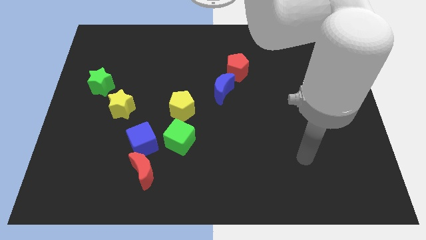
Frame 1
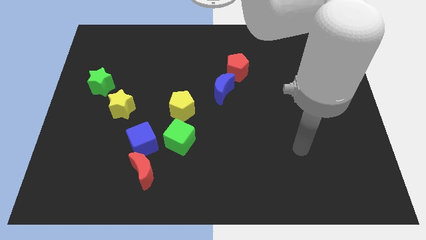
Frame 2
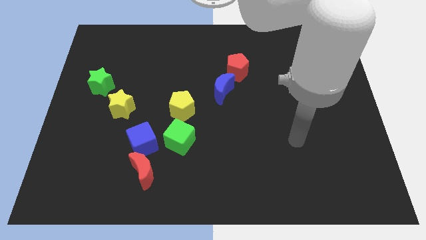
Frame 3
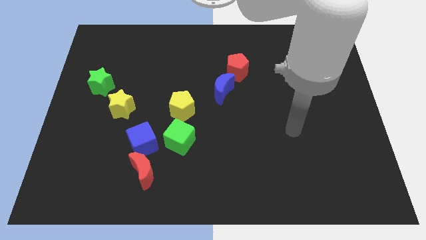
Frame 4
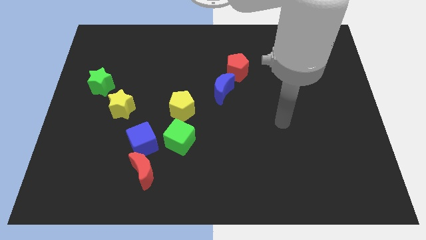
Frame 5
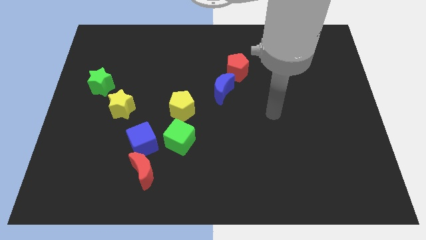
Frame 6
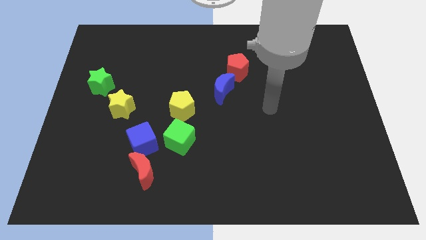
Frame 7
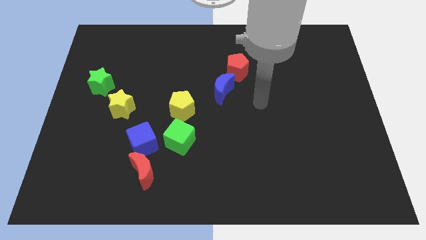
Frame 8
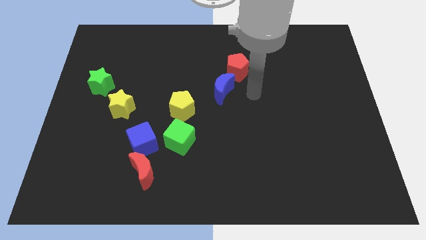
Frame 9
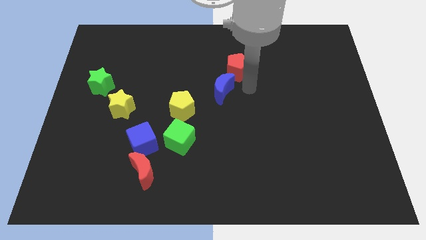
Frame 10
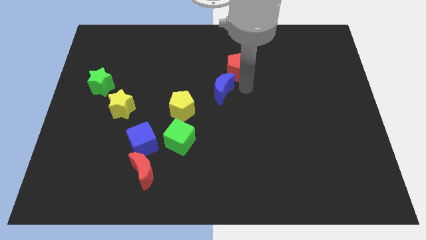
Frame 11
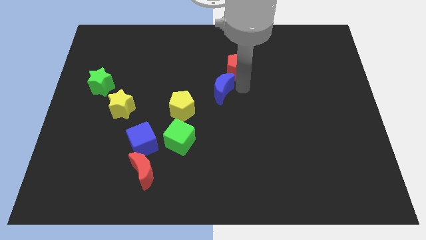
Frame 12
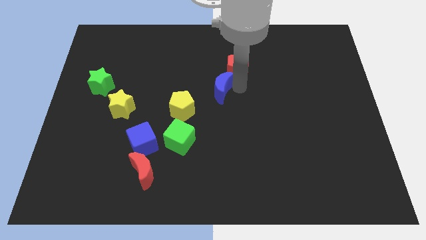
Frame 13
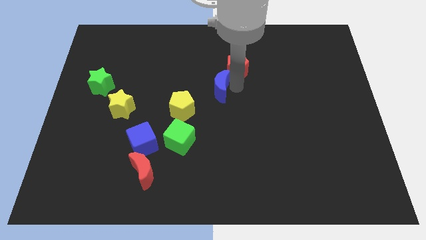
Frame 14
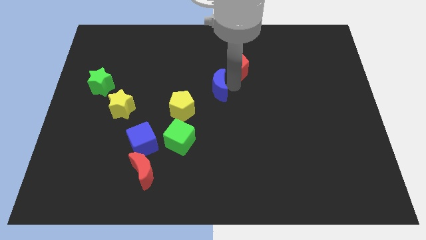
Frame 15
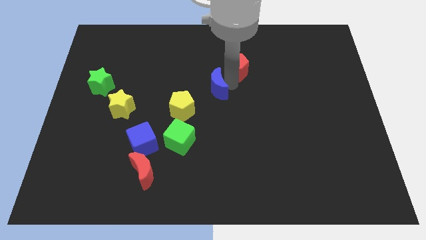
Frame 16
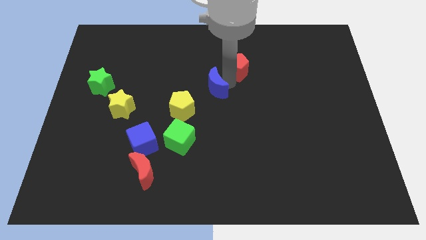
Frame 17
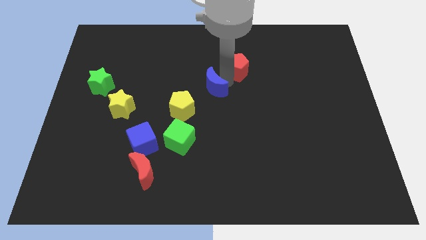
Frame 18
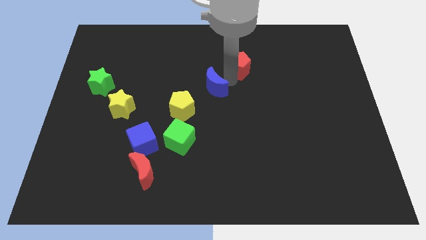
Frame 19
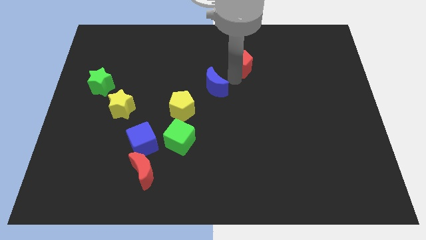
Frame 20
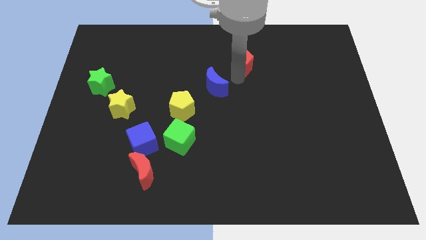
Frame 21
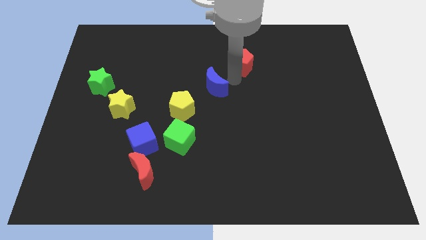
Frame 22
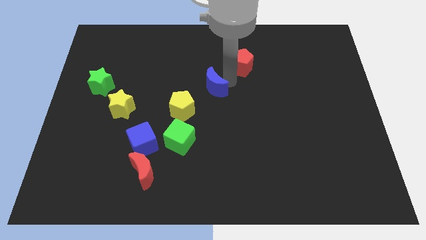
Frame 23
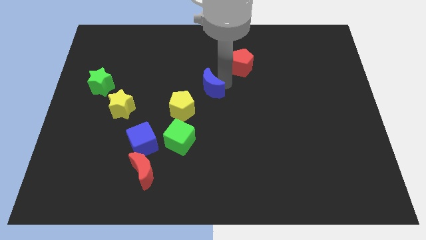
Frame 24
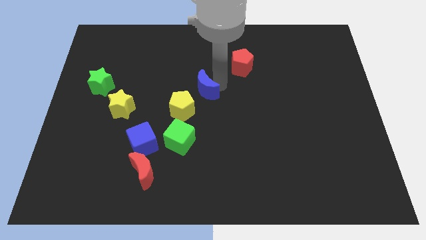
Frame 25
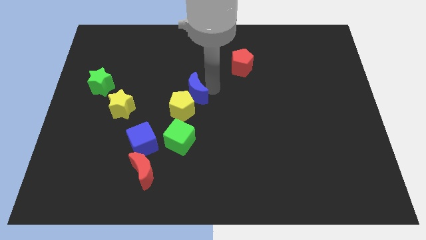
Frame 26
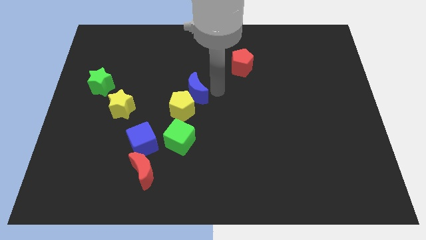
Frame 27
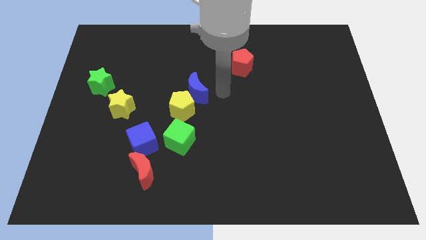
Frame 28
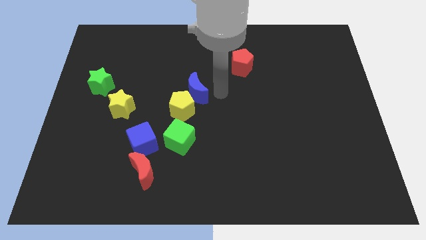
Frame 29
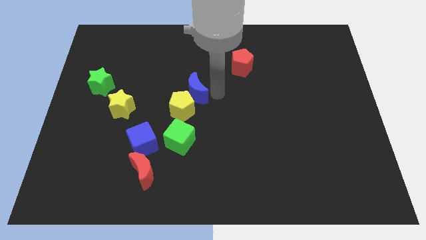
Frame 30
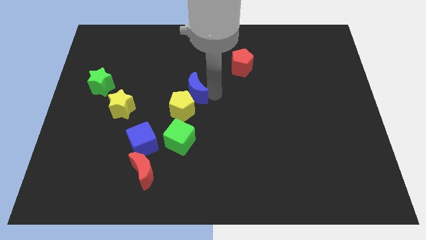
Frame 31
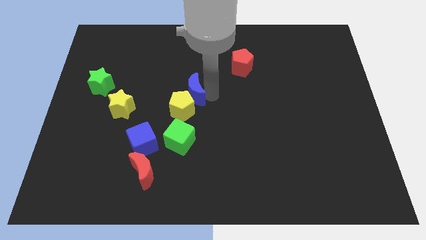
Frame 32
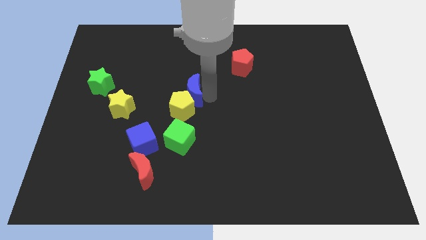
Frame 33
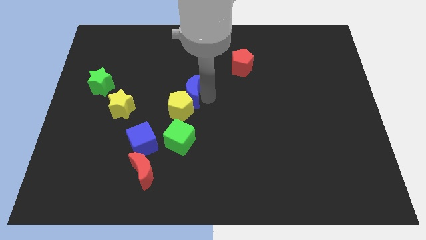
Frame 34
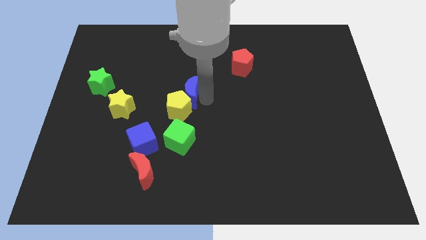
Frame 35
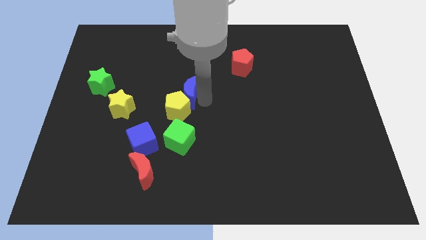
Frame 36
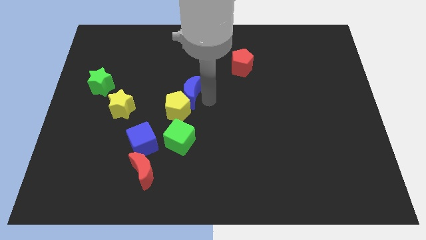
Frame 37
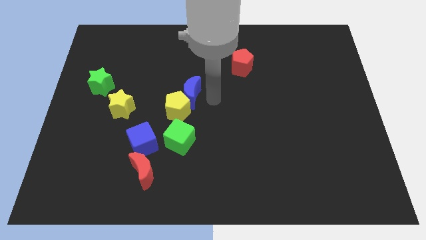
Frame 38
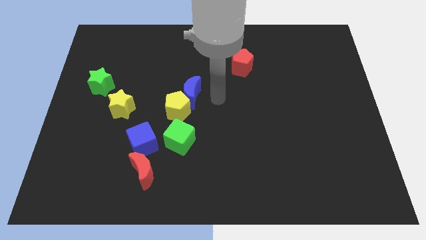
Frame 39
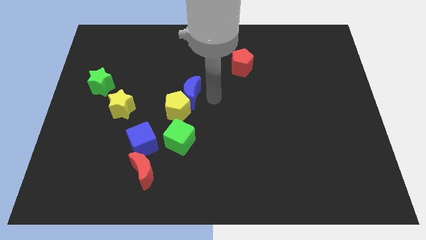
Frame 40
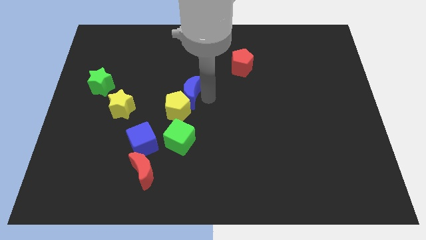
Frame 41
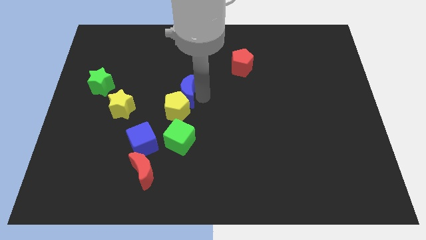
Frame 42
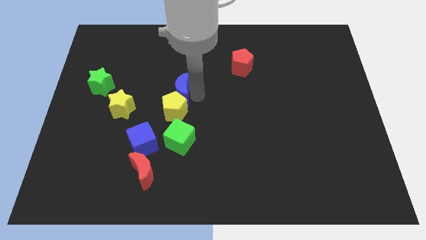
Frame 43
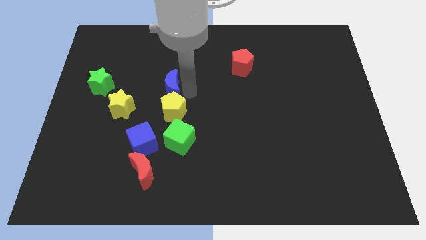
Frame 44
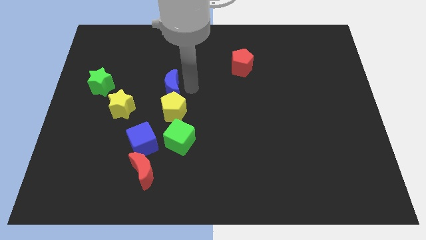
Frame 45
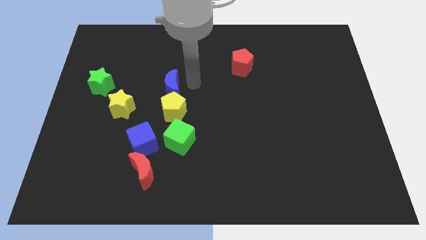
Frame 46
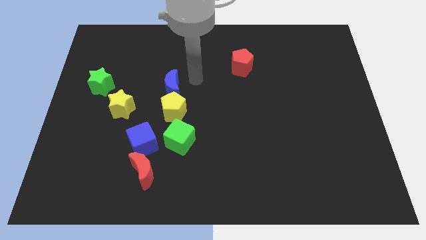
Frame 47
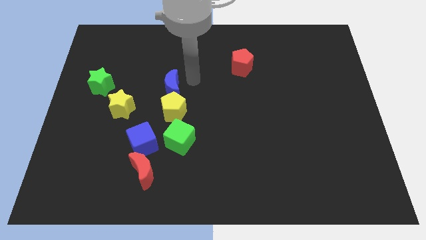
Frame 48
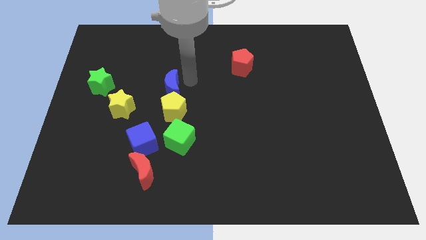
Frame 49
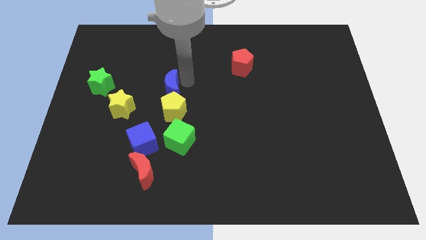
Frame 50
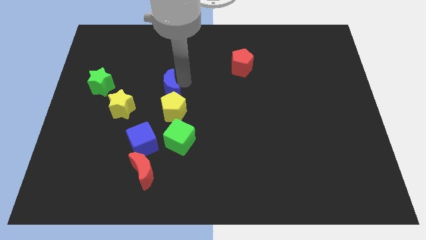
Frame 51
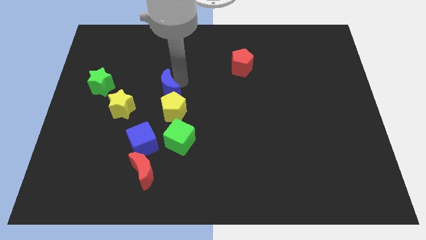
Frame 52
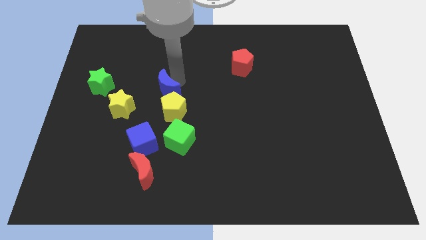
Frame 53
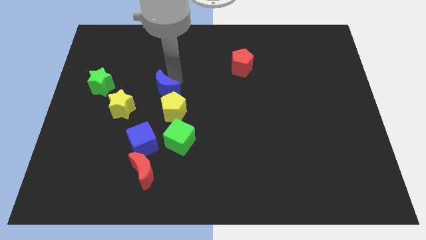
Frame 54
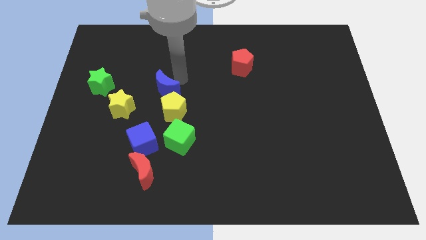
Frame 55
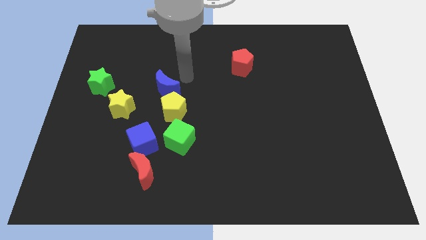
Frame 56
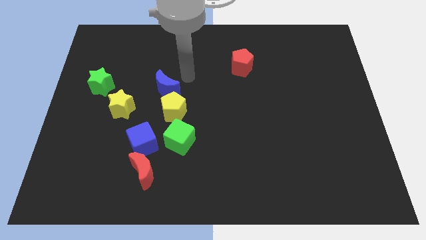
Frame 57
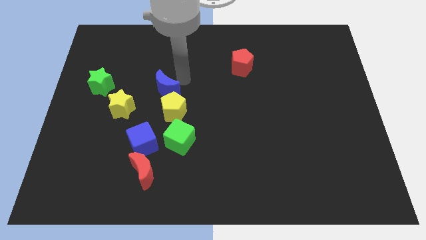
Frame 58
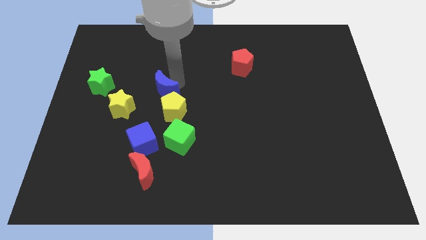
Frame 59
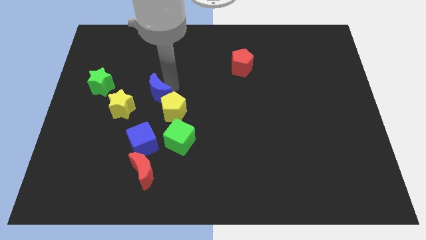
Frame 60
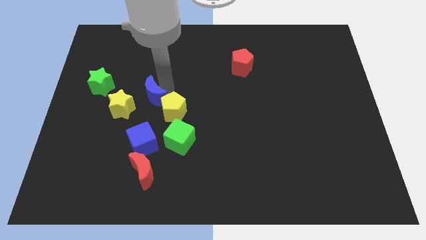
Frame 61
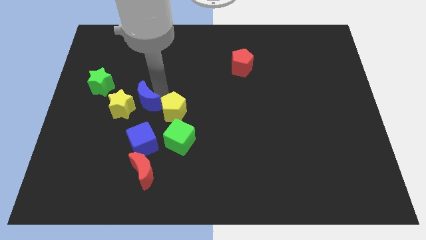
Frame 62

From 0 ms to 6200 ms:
push the blue moon close to the yellow star

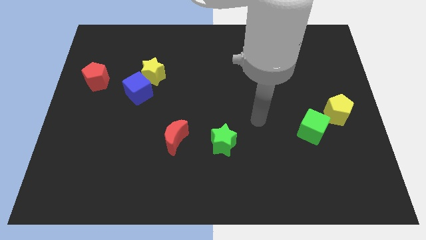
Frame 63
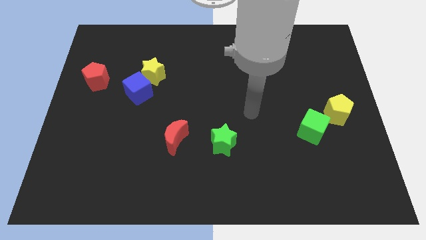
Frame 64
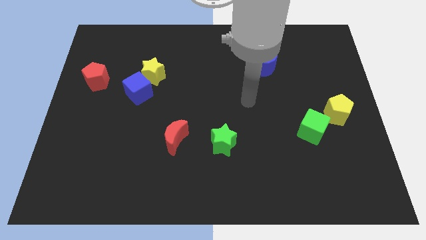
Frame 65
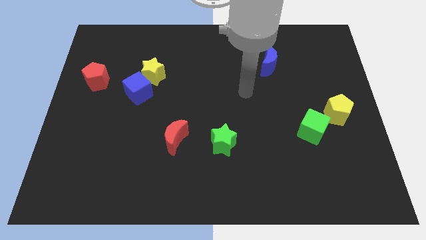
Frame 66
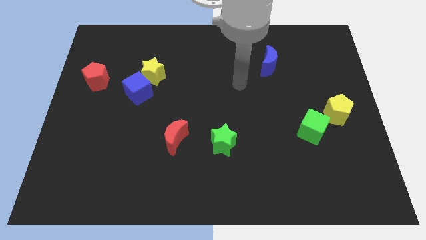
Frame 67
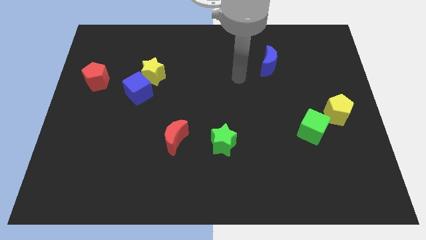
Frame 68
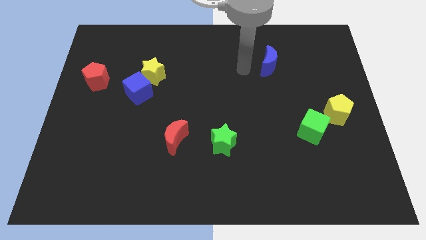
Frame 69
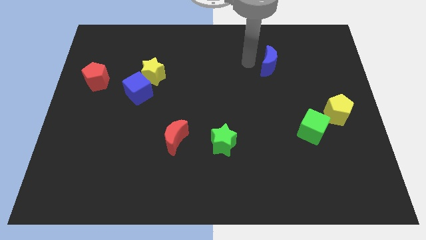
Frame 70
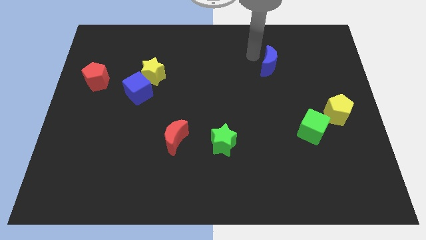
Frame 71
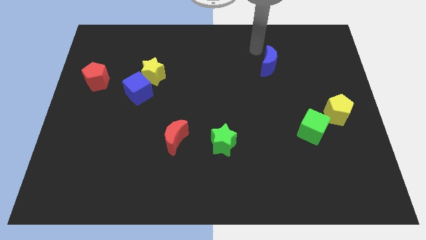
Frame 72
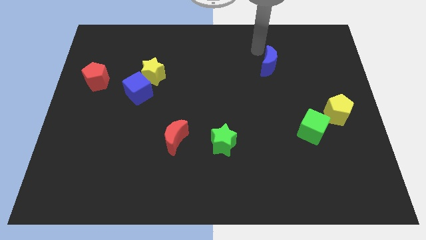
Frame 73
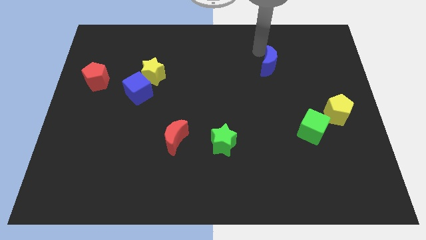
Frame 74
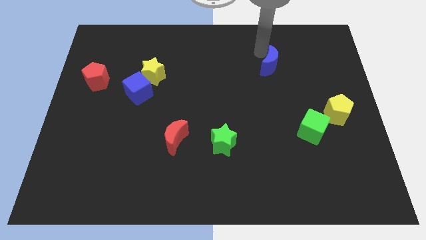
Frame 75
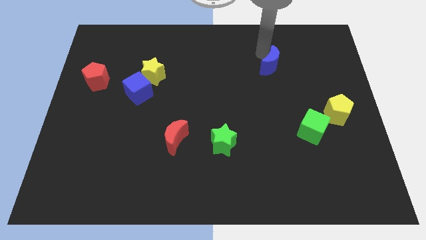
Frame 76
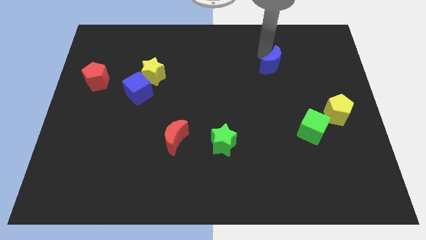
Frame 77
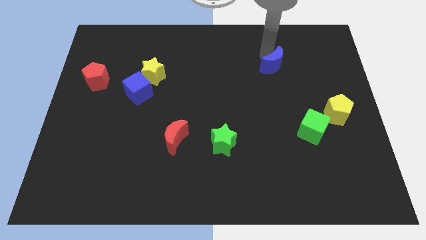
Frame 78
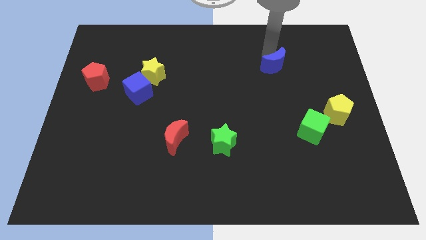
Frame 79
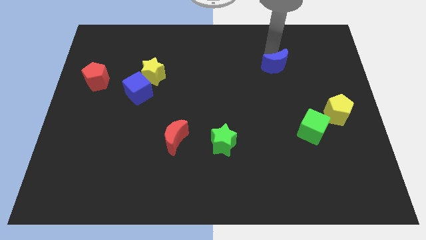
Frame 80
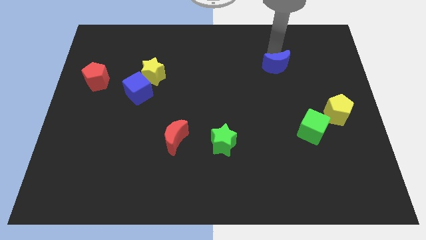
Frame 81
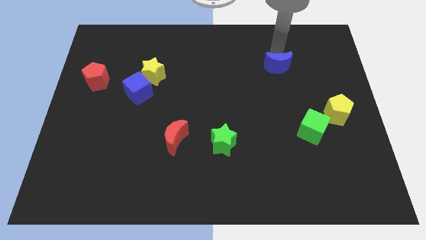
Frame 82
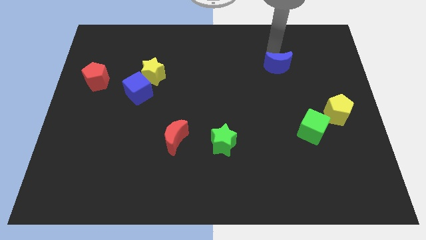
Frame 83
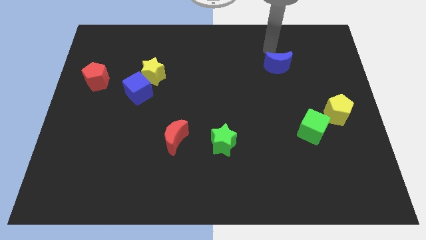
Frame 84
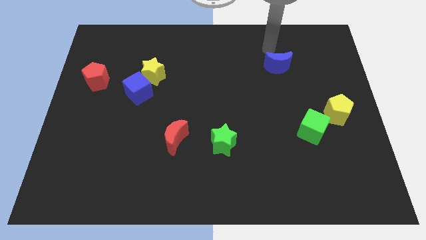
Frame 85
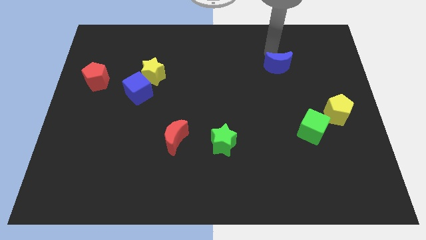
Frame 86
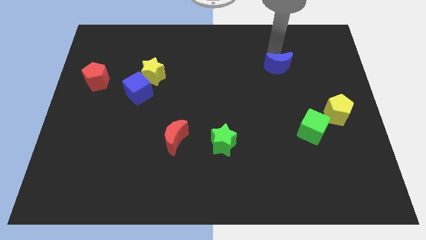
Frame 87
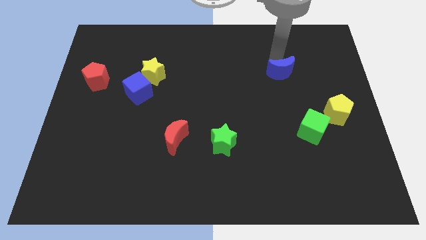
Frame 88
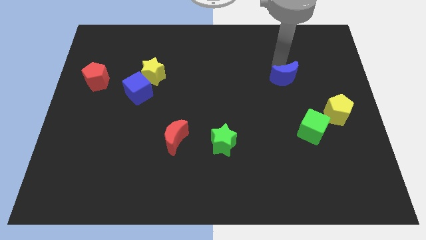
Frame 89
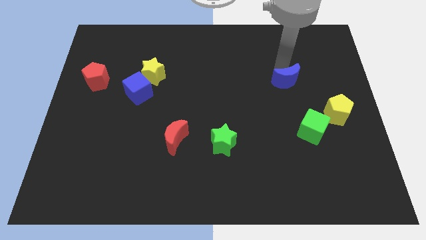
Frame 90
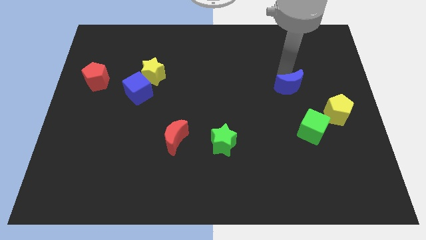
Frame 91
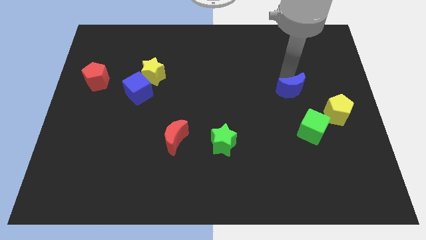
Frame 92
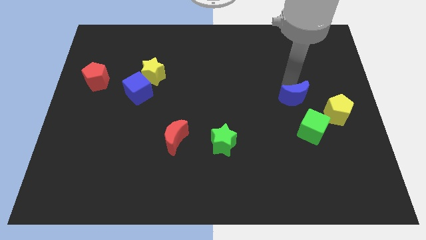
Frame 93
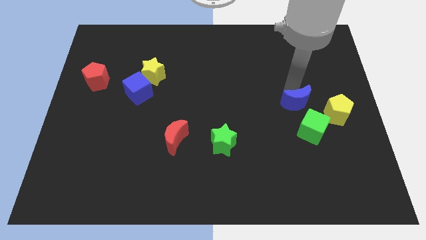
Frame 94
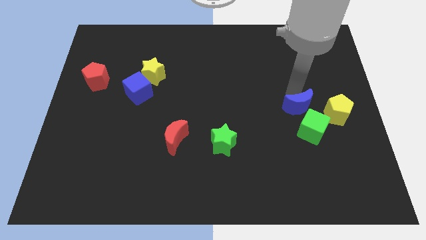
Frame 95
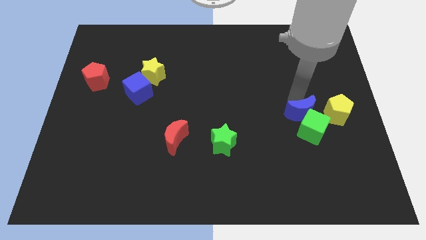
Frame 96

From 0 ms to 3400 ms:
push the blue moon to the green cube
